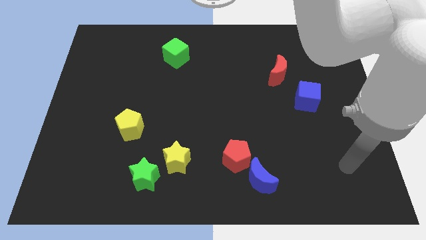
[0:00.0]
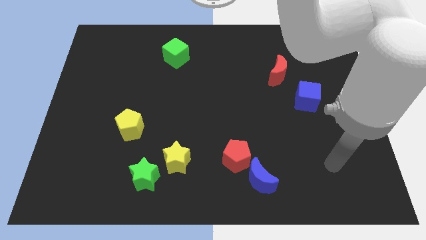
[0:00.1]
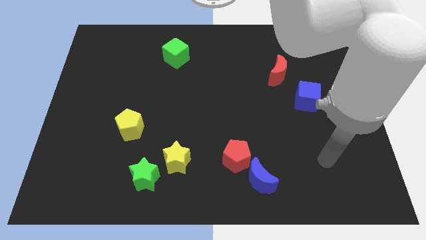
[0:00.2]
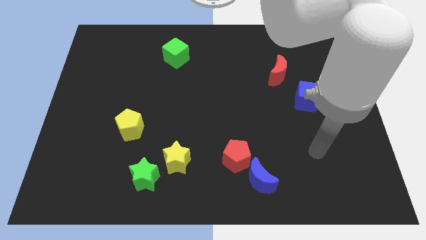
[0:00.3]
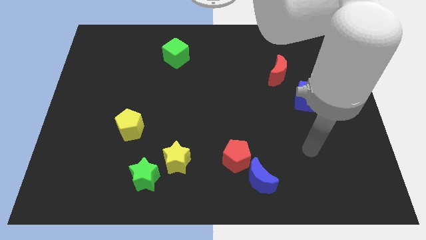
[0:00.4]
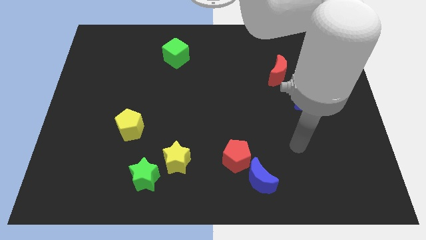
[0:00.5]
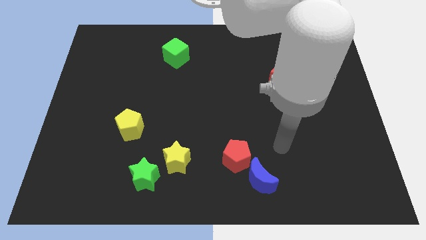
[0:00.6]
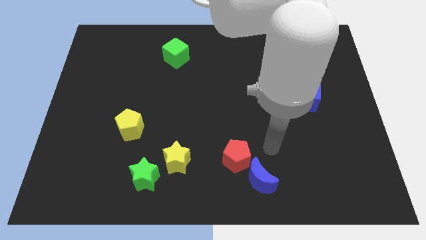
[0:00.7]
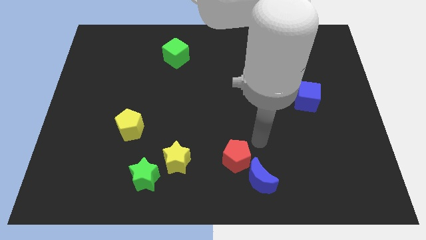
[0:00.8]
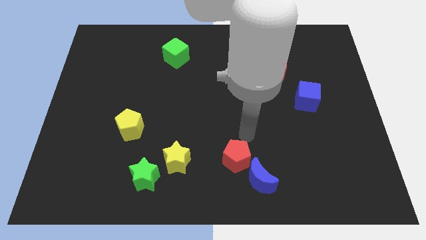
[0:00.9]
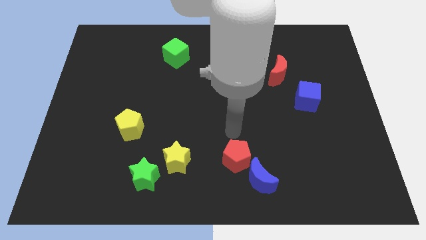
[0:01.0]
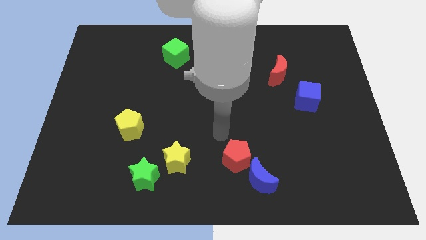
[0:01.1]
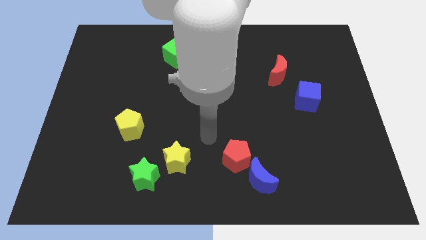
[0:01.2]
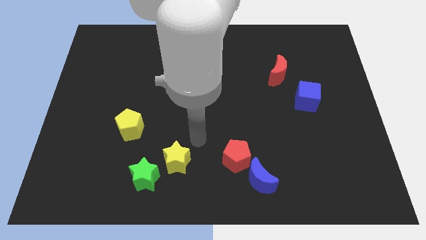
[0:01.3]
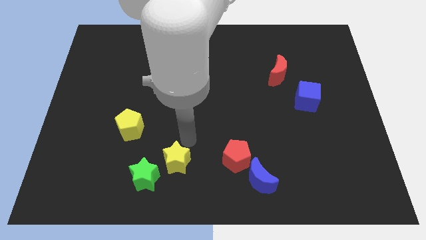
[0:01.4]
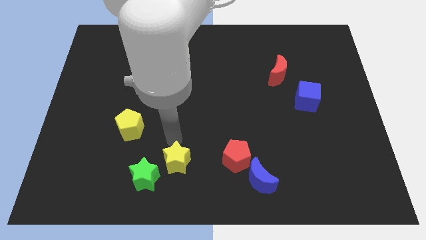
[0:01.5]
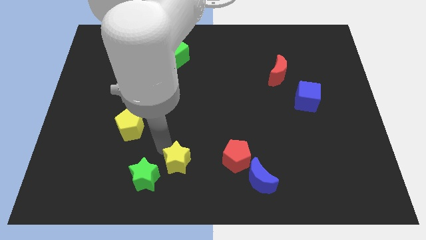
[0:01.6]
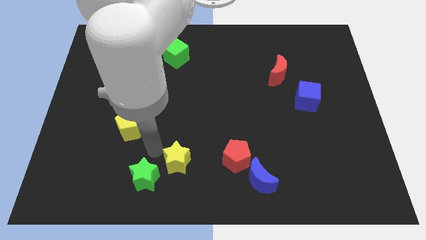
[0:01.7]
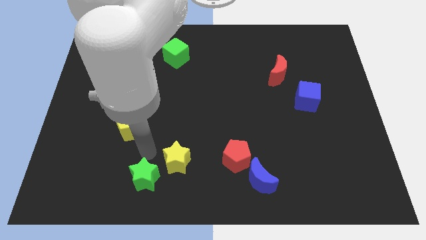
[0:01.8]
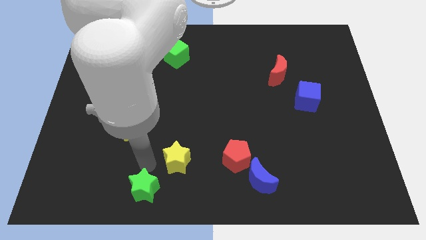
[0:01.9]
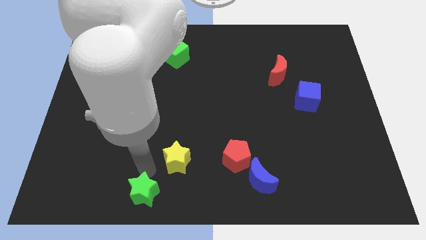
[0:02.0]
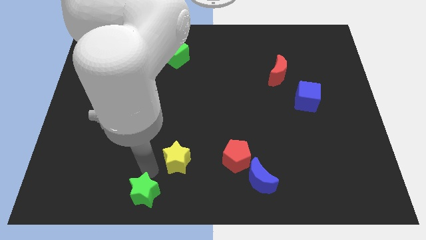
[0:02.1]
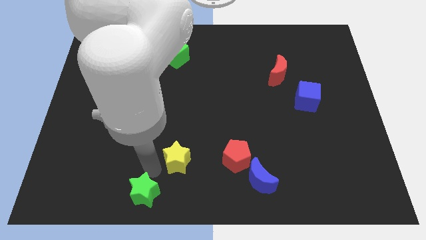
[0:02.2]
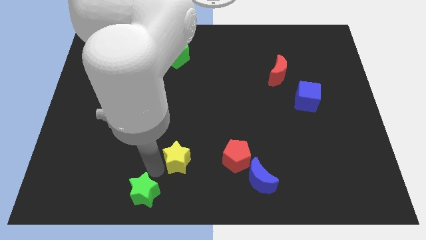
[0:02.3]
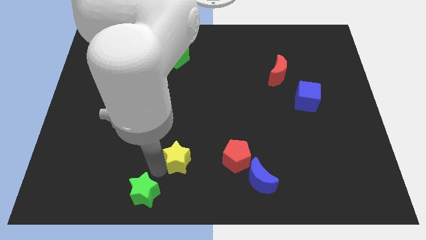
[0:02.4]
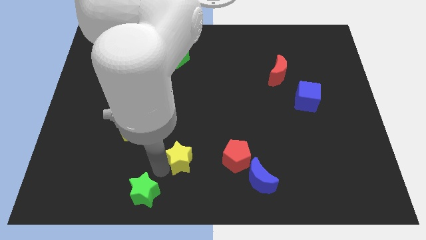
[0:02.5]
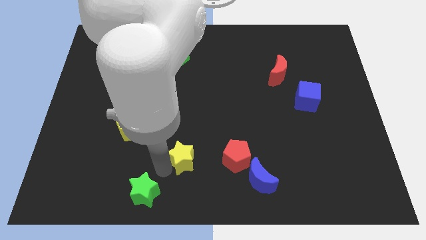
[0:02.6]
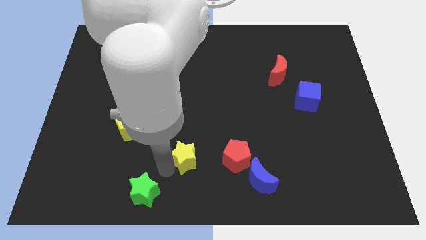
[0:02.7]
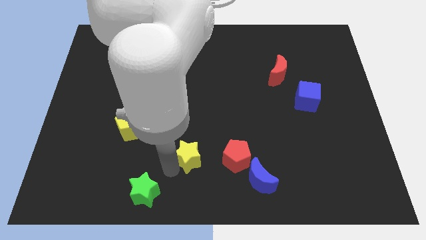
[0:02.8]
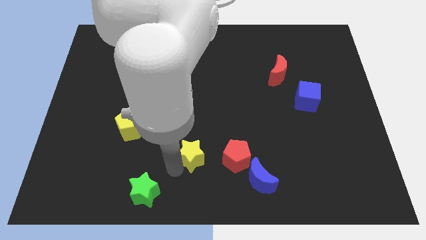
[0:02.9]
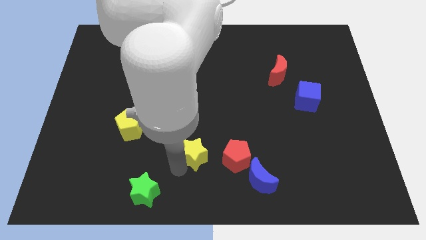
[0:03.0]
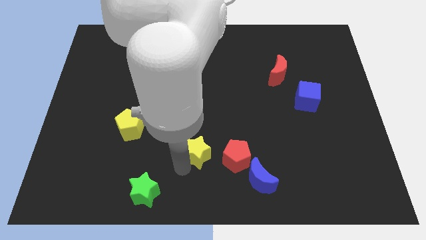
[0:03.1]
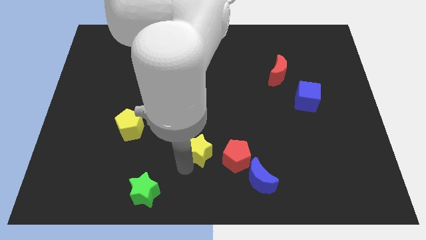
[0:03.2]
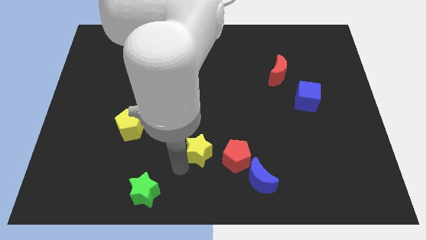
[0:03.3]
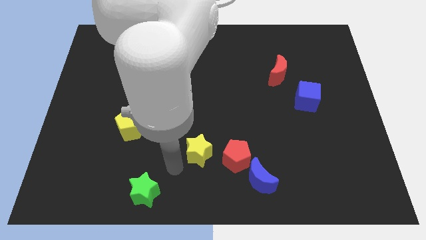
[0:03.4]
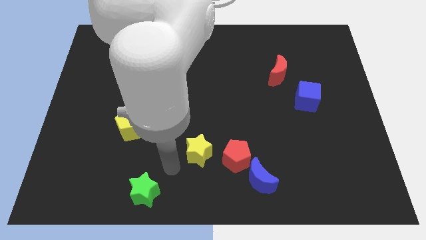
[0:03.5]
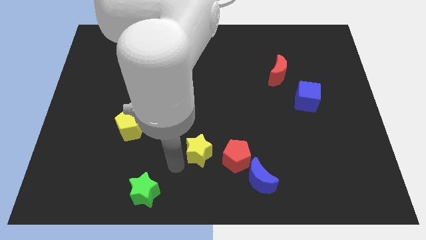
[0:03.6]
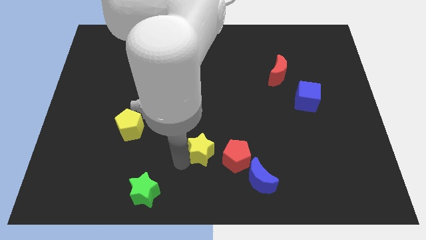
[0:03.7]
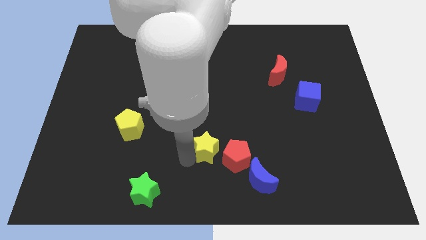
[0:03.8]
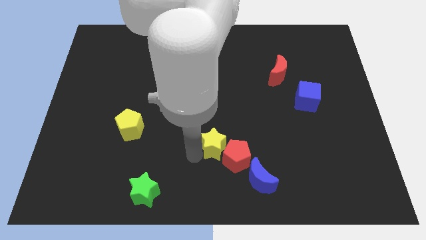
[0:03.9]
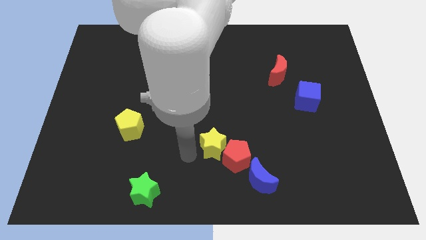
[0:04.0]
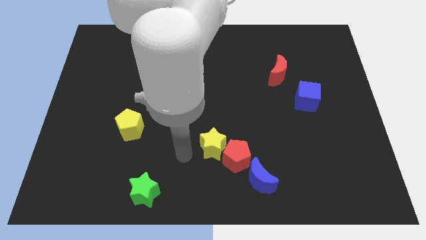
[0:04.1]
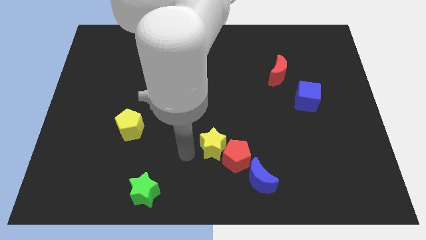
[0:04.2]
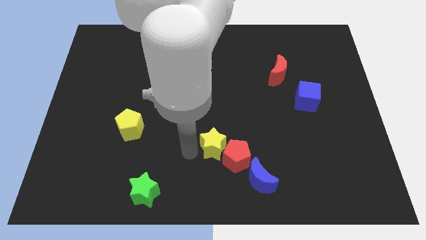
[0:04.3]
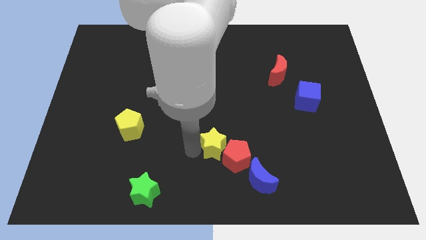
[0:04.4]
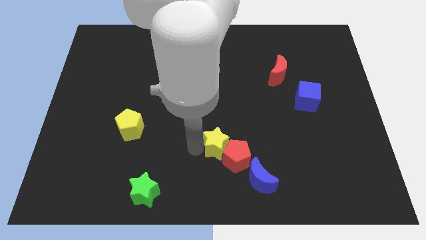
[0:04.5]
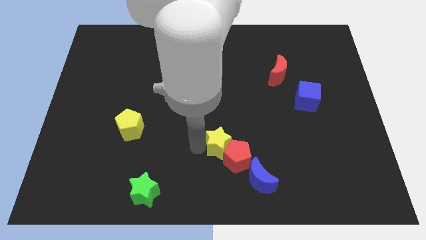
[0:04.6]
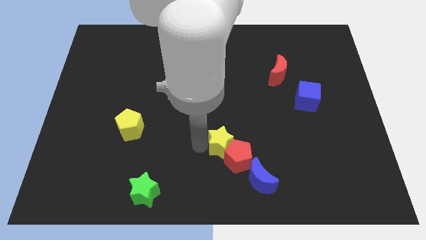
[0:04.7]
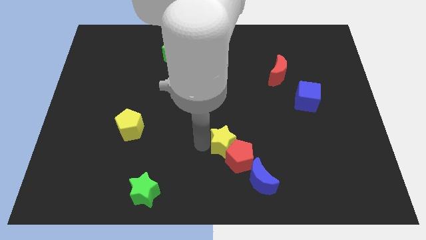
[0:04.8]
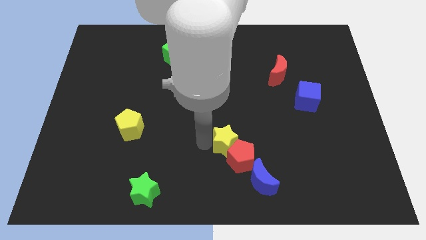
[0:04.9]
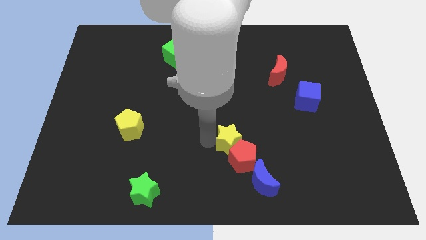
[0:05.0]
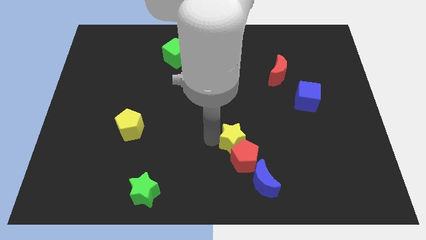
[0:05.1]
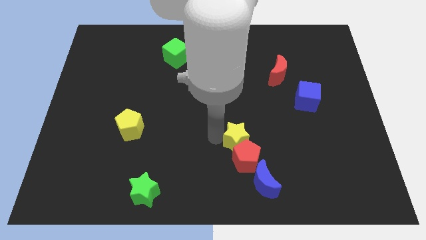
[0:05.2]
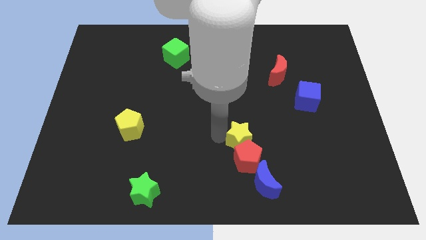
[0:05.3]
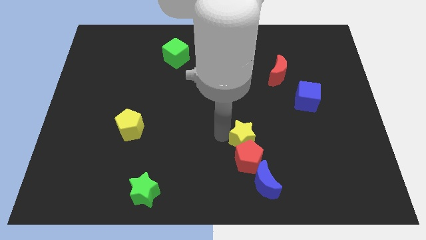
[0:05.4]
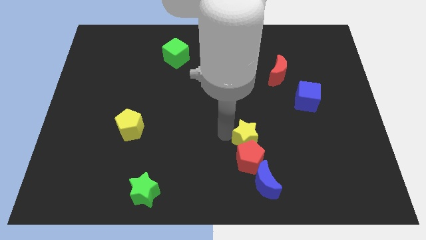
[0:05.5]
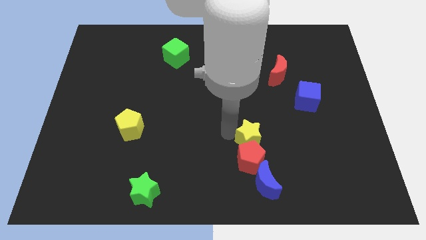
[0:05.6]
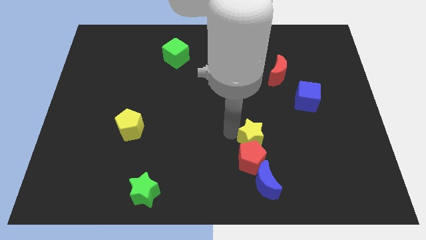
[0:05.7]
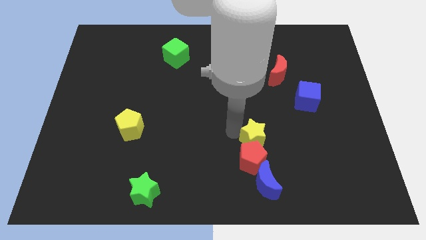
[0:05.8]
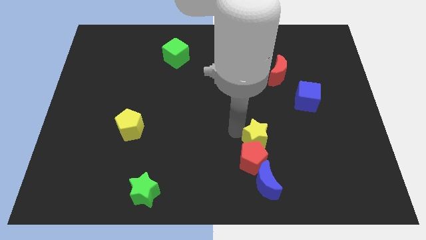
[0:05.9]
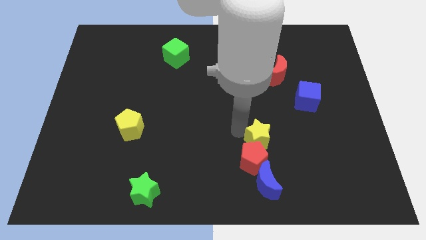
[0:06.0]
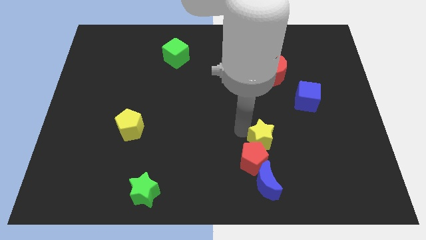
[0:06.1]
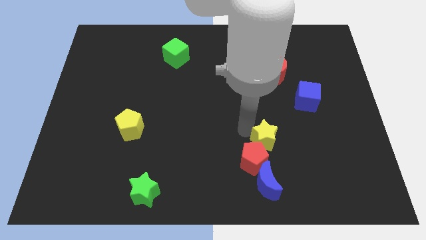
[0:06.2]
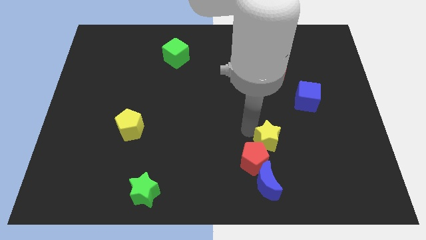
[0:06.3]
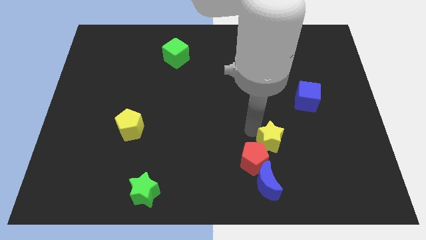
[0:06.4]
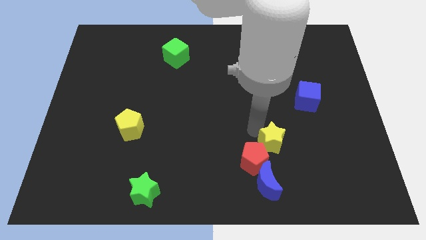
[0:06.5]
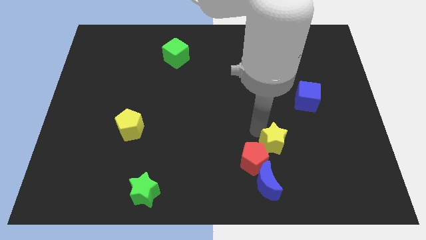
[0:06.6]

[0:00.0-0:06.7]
move the yellow star right

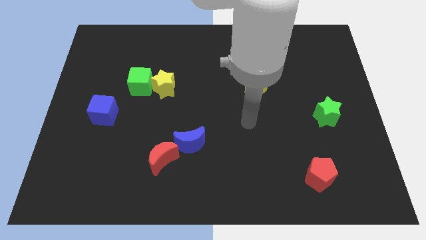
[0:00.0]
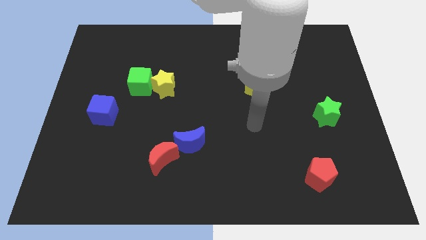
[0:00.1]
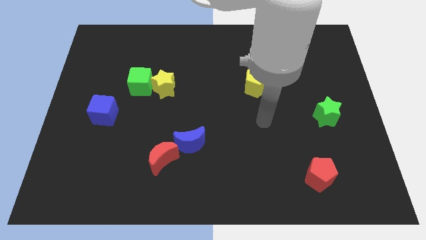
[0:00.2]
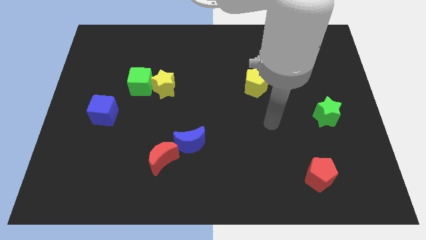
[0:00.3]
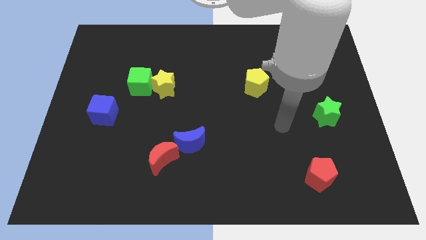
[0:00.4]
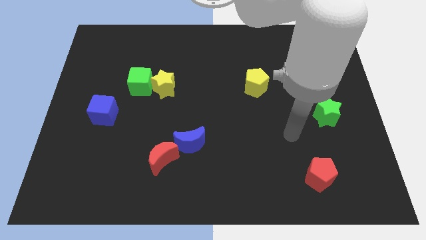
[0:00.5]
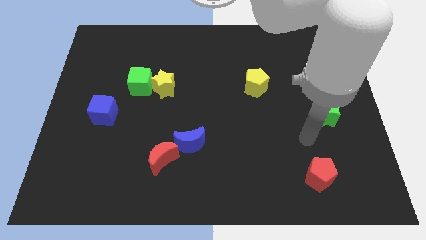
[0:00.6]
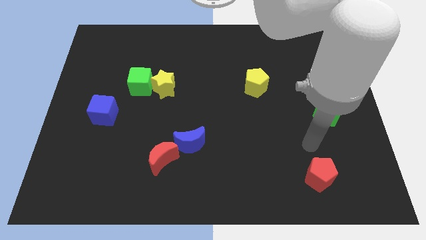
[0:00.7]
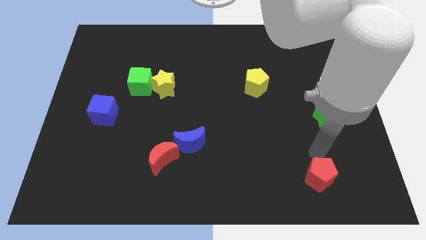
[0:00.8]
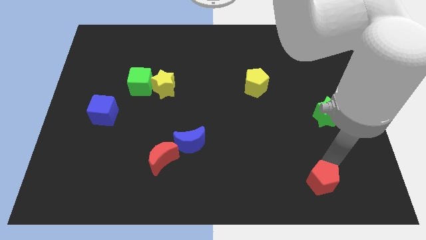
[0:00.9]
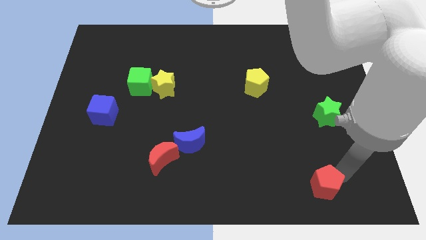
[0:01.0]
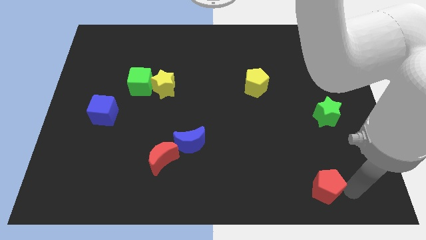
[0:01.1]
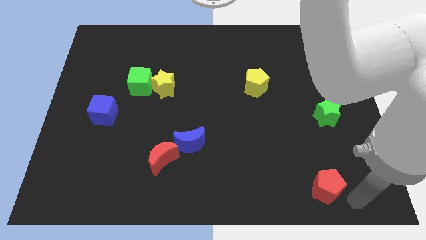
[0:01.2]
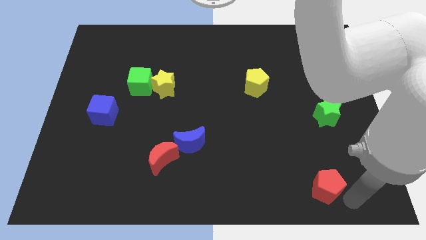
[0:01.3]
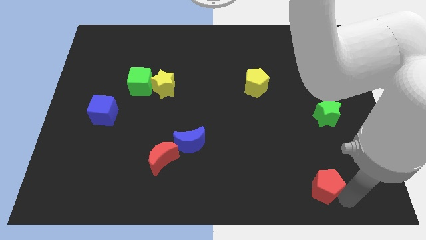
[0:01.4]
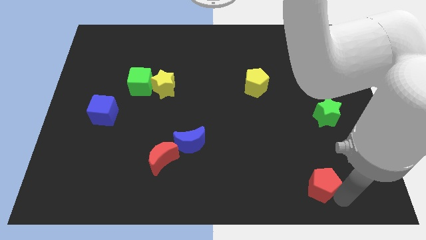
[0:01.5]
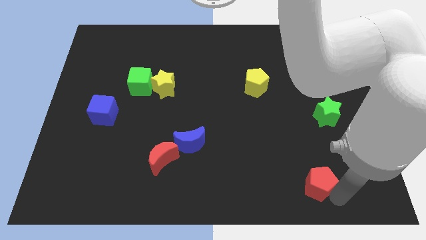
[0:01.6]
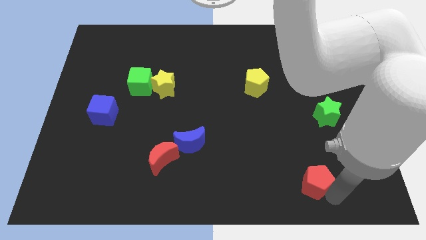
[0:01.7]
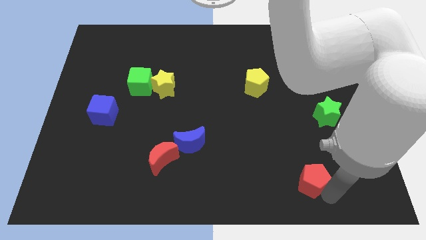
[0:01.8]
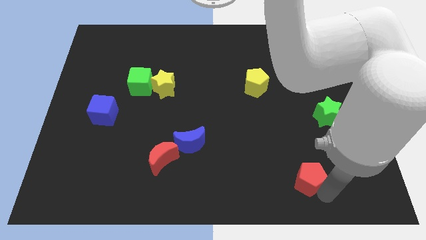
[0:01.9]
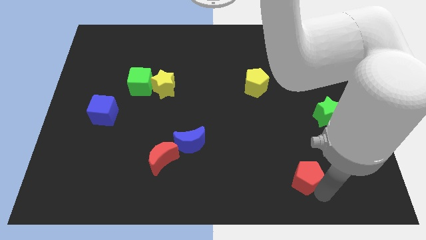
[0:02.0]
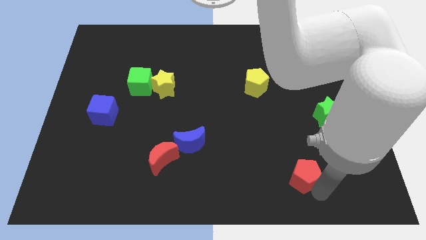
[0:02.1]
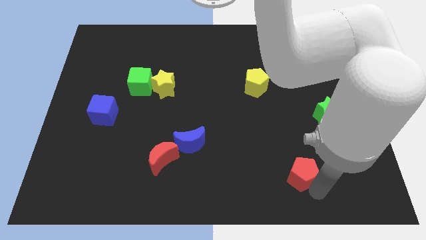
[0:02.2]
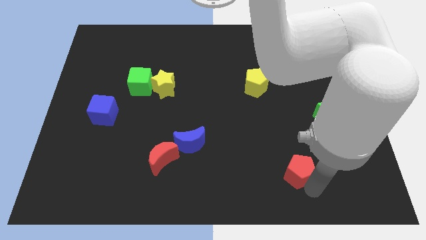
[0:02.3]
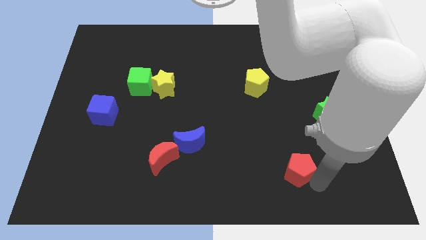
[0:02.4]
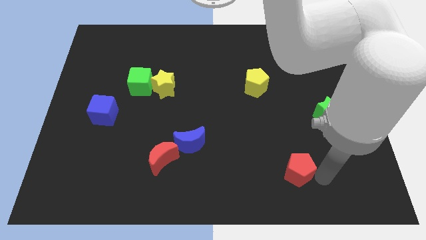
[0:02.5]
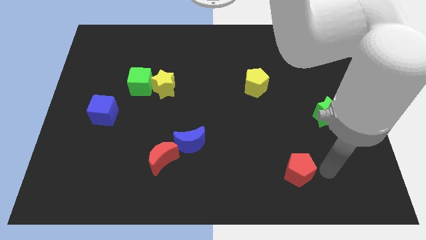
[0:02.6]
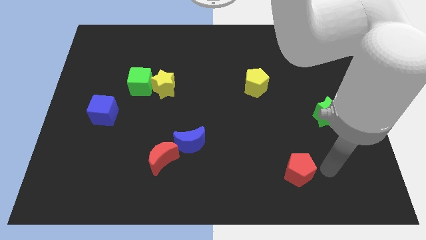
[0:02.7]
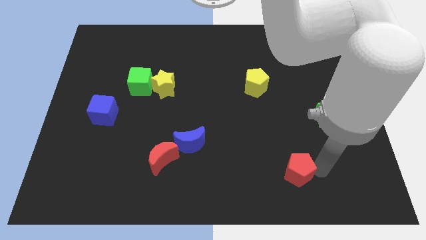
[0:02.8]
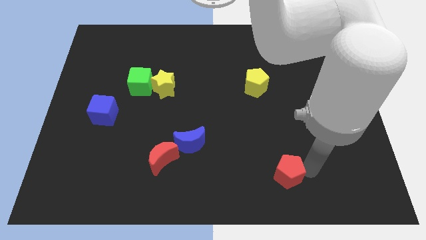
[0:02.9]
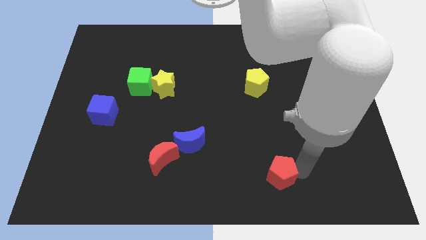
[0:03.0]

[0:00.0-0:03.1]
slide the red pentagon a bit left
